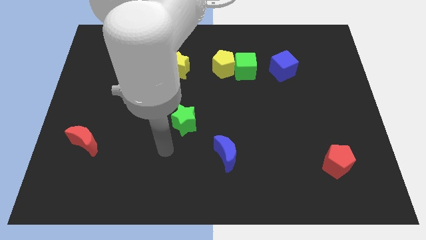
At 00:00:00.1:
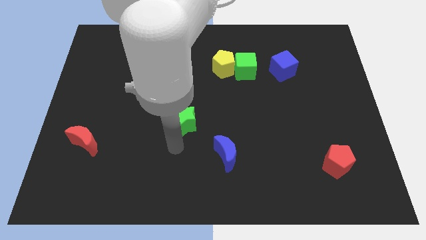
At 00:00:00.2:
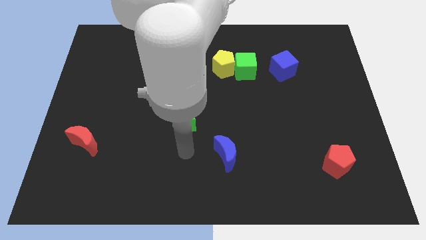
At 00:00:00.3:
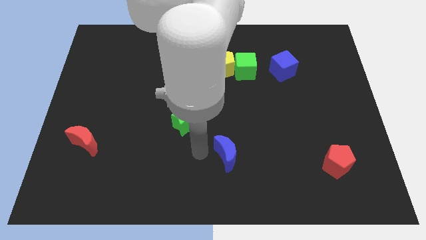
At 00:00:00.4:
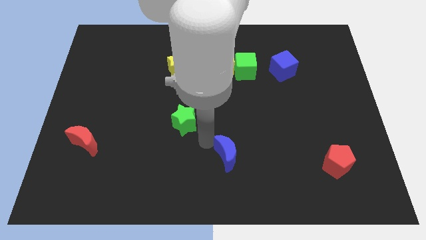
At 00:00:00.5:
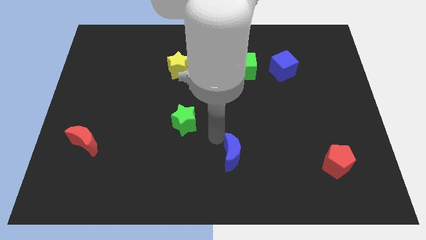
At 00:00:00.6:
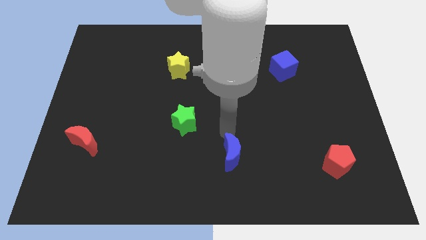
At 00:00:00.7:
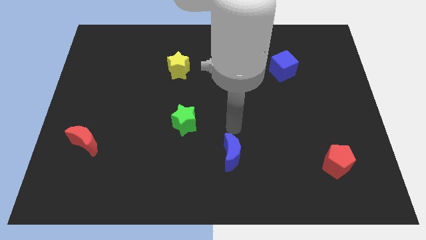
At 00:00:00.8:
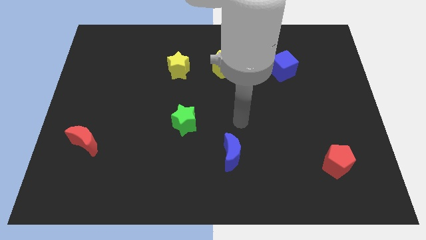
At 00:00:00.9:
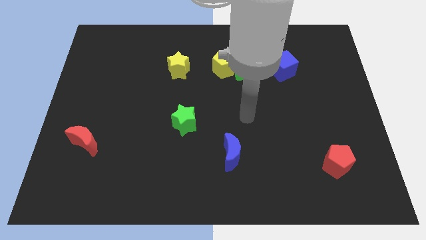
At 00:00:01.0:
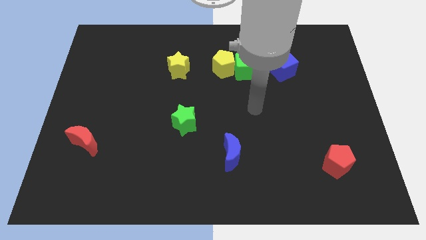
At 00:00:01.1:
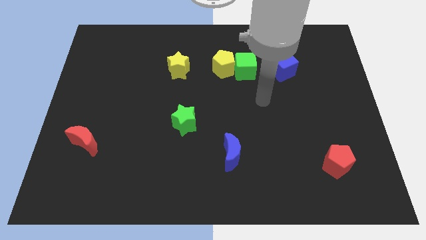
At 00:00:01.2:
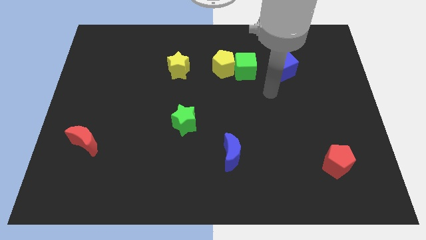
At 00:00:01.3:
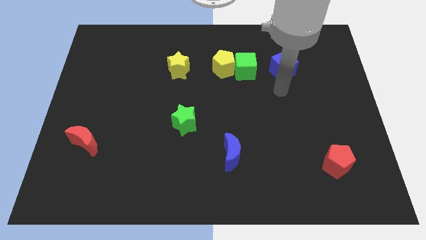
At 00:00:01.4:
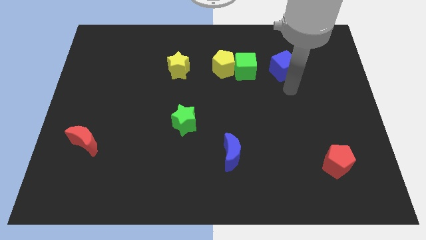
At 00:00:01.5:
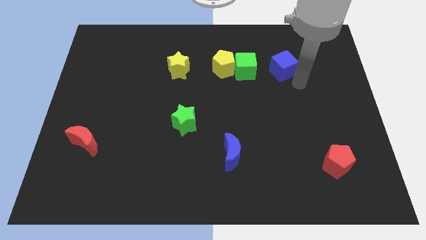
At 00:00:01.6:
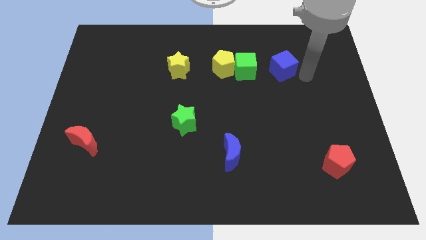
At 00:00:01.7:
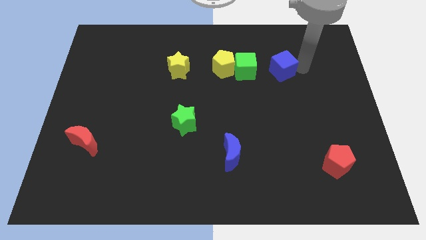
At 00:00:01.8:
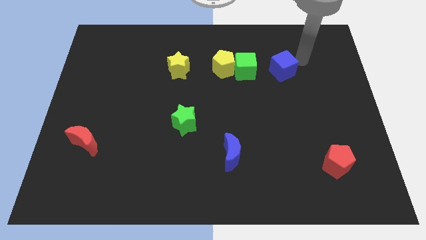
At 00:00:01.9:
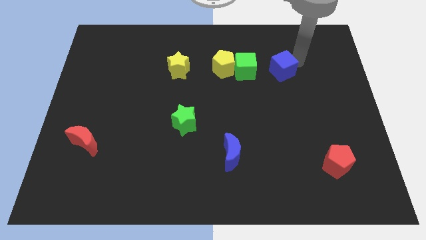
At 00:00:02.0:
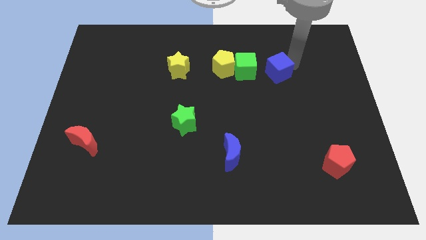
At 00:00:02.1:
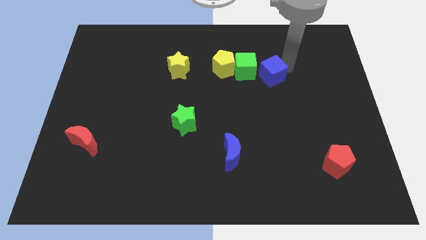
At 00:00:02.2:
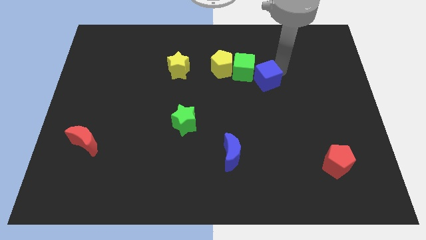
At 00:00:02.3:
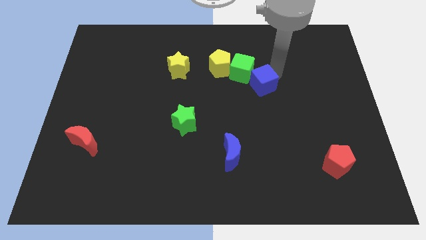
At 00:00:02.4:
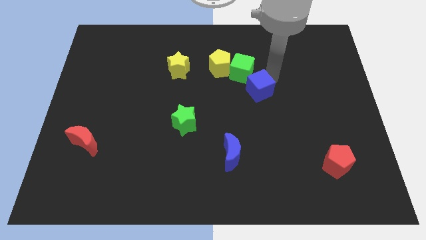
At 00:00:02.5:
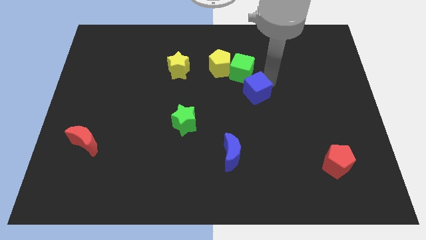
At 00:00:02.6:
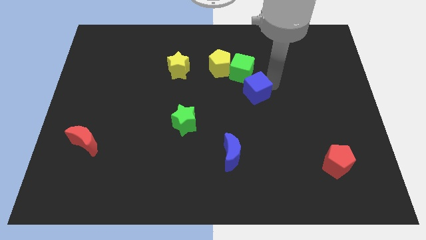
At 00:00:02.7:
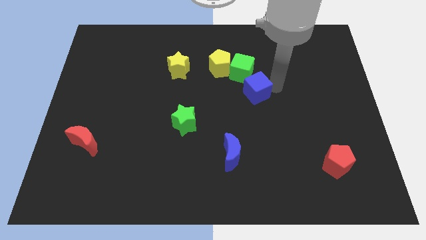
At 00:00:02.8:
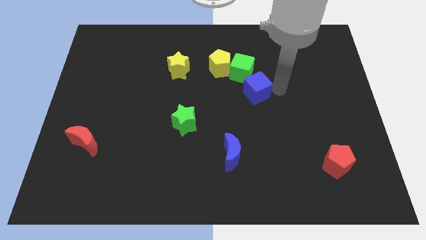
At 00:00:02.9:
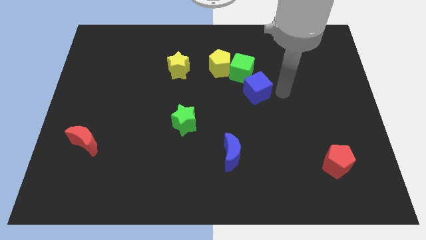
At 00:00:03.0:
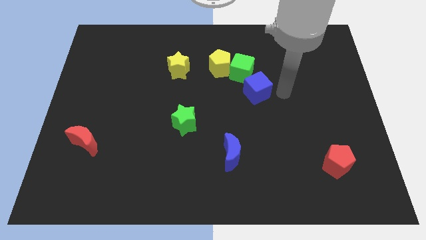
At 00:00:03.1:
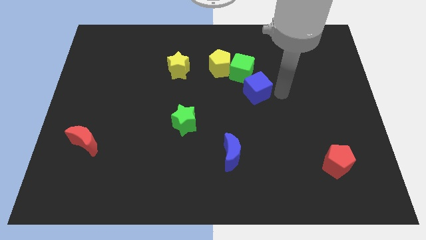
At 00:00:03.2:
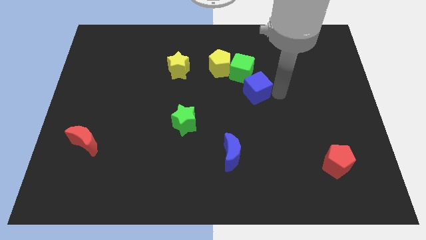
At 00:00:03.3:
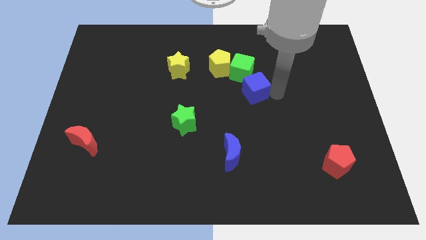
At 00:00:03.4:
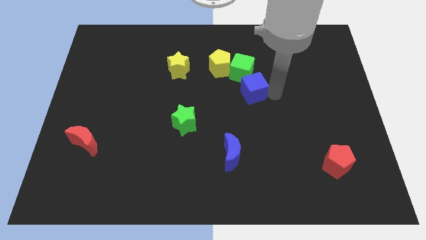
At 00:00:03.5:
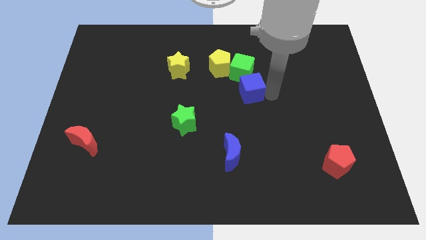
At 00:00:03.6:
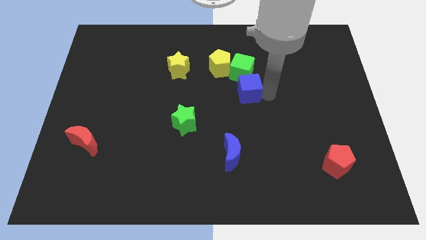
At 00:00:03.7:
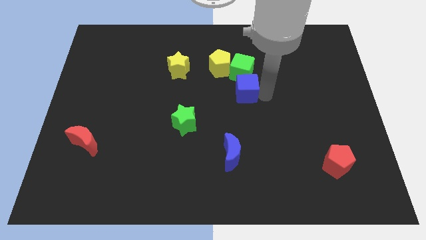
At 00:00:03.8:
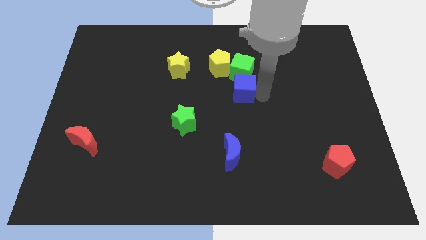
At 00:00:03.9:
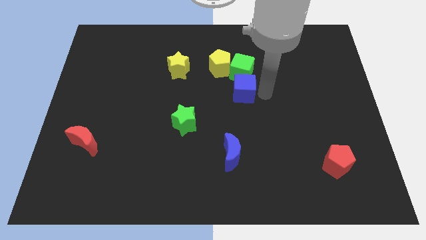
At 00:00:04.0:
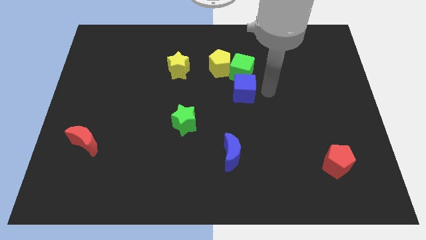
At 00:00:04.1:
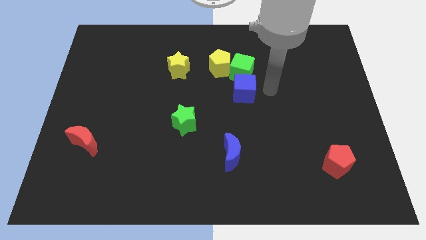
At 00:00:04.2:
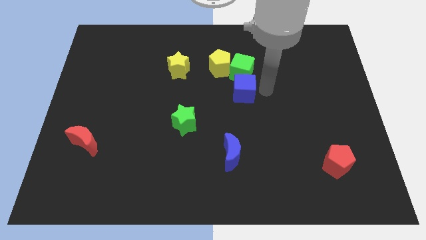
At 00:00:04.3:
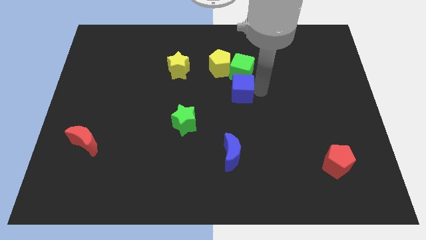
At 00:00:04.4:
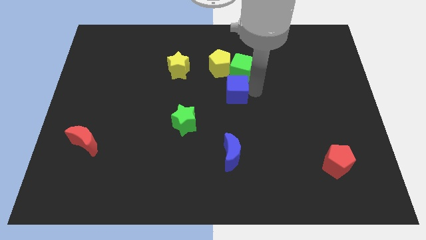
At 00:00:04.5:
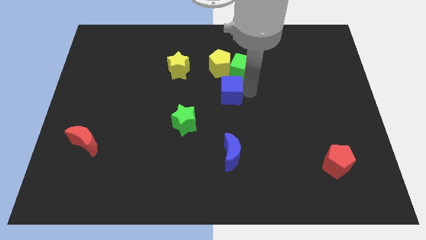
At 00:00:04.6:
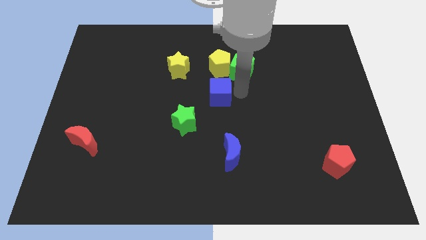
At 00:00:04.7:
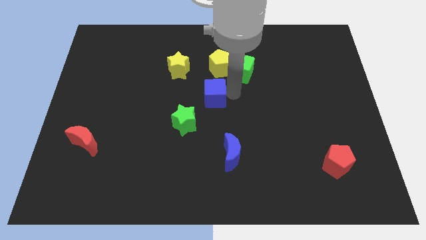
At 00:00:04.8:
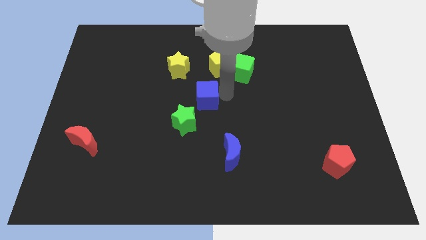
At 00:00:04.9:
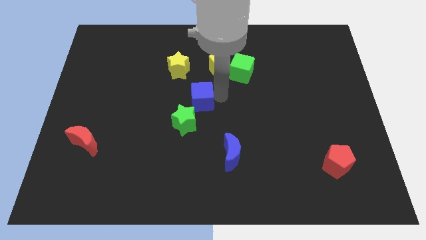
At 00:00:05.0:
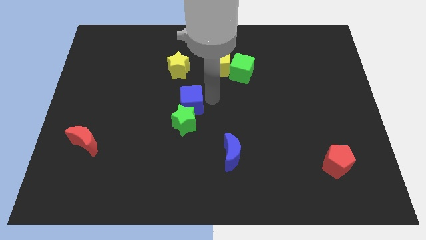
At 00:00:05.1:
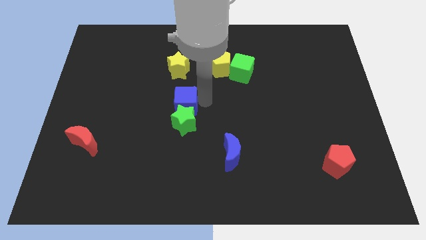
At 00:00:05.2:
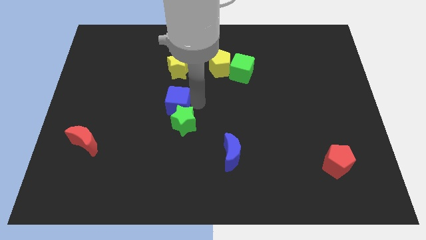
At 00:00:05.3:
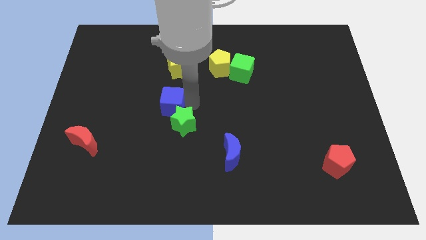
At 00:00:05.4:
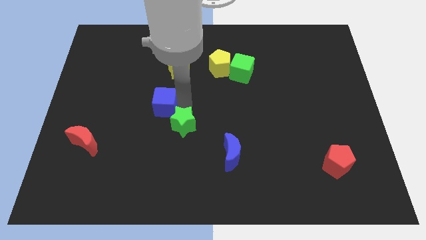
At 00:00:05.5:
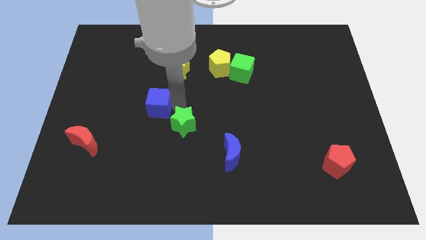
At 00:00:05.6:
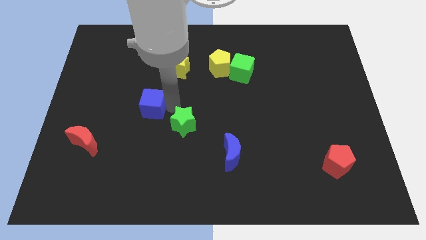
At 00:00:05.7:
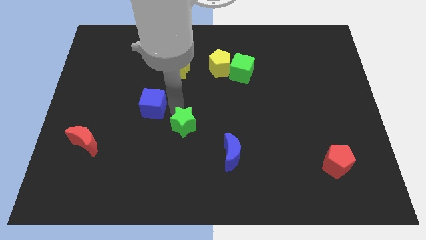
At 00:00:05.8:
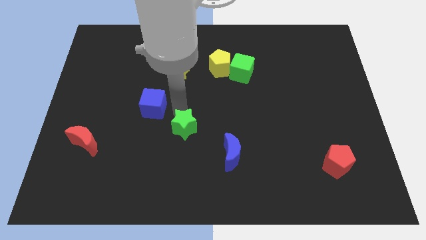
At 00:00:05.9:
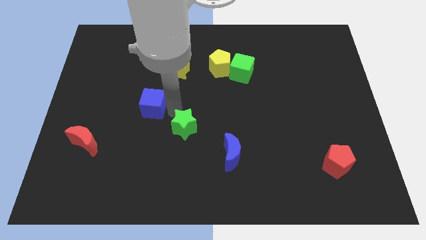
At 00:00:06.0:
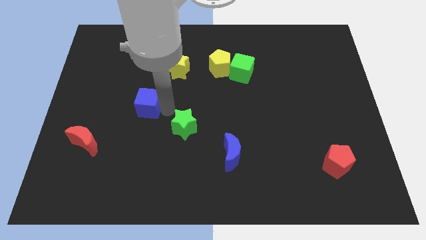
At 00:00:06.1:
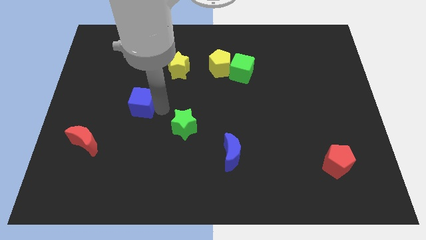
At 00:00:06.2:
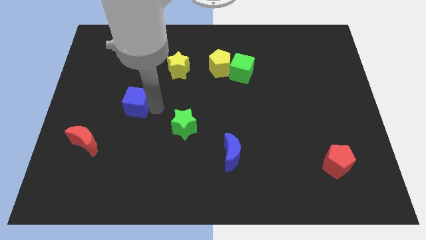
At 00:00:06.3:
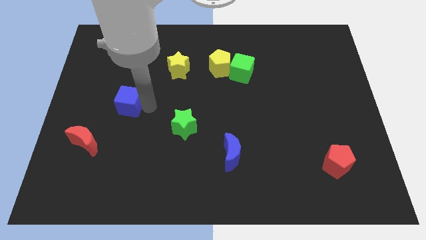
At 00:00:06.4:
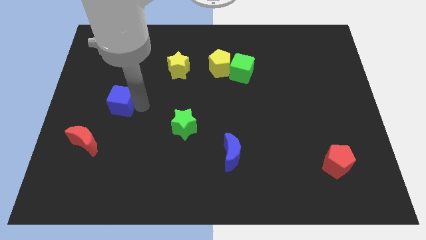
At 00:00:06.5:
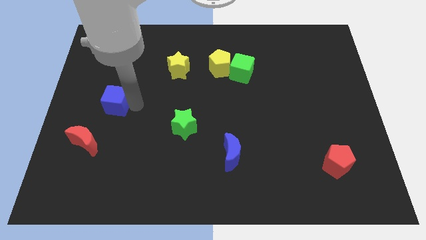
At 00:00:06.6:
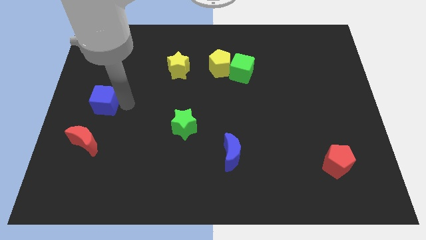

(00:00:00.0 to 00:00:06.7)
put the blue cube to the left side of the board
